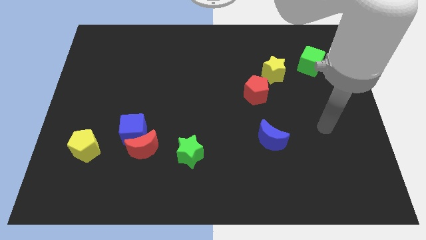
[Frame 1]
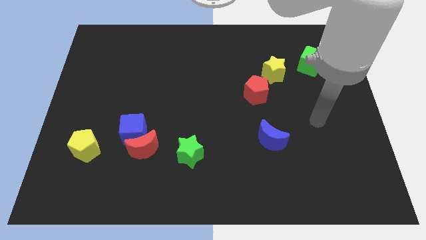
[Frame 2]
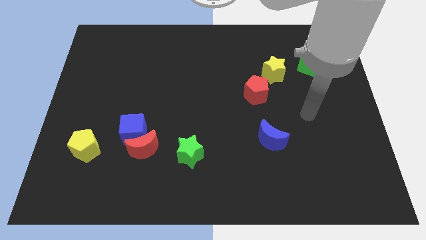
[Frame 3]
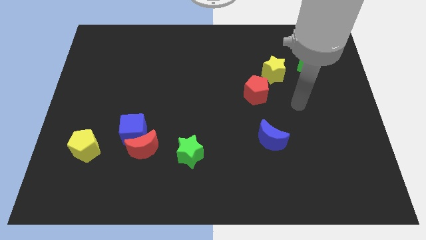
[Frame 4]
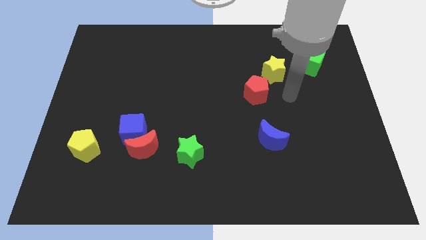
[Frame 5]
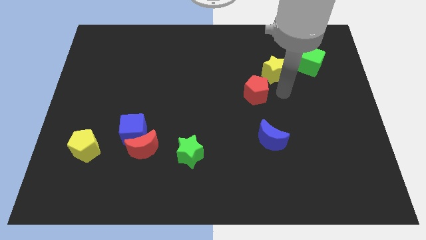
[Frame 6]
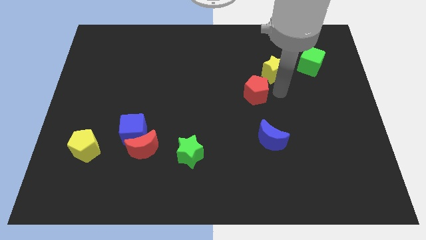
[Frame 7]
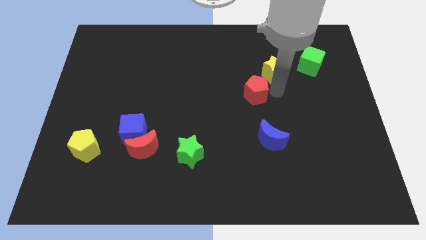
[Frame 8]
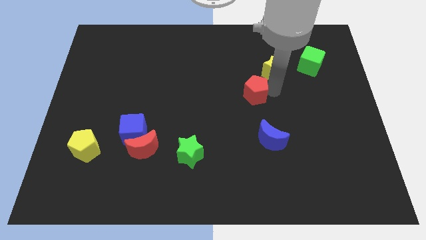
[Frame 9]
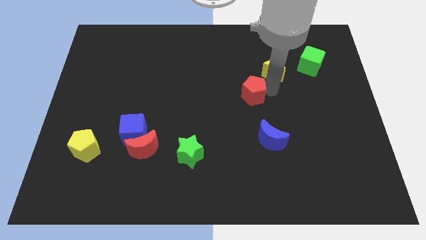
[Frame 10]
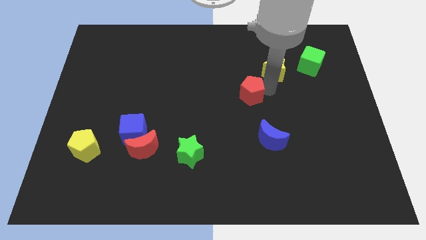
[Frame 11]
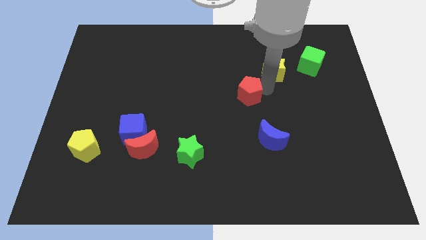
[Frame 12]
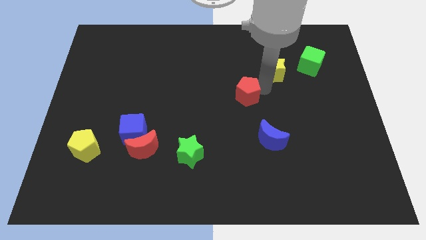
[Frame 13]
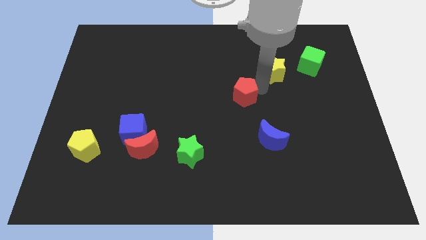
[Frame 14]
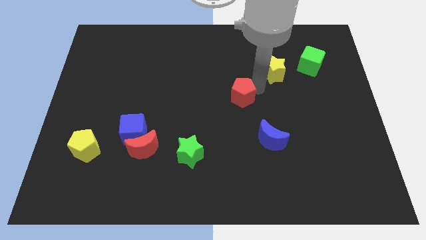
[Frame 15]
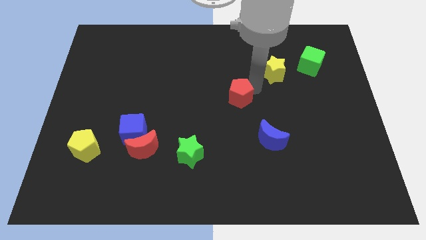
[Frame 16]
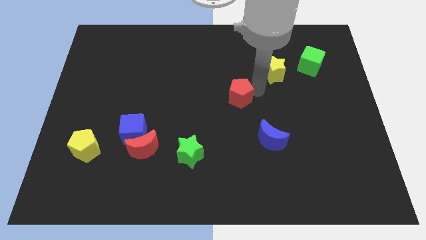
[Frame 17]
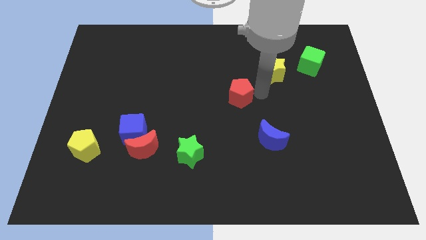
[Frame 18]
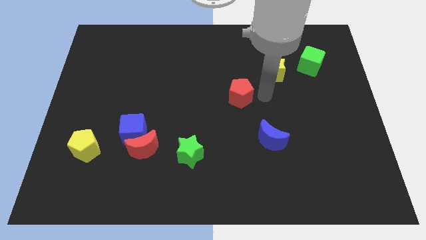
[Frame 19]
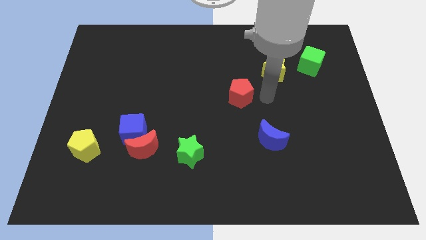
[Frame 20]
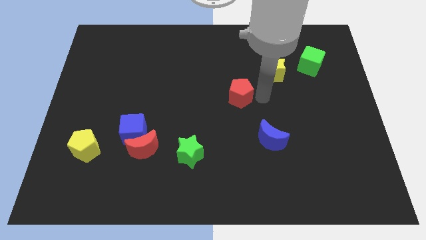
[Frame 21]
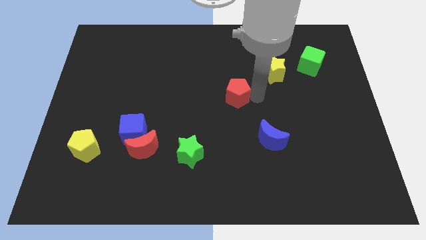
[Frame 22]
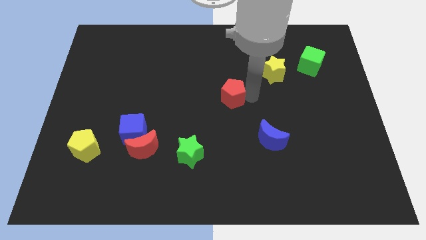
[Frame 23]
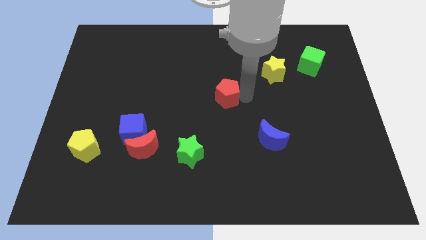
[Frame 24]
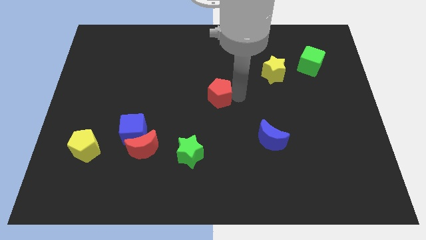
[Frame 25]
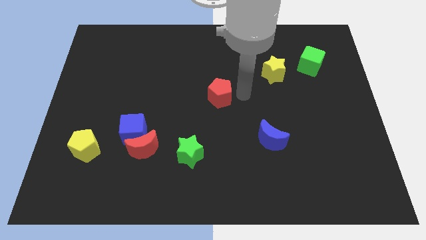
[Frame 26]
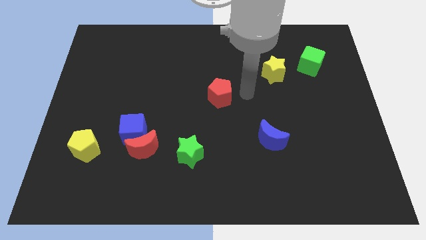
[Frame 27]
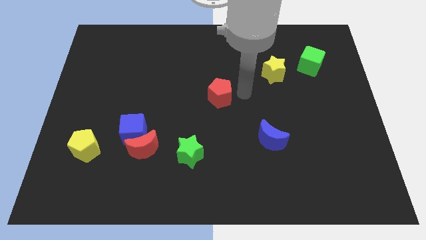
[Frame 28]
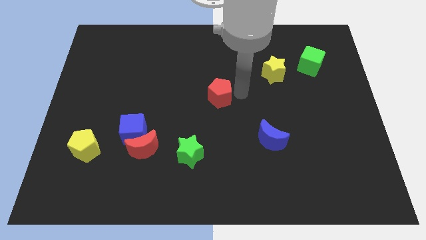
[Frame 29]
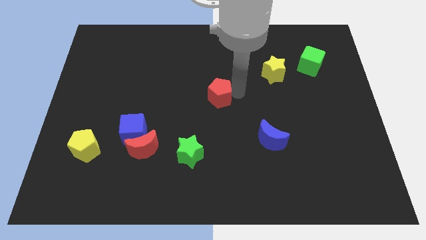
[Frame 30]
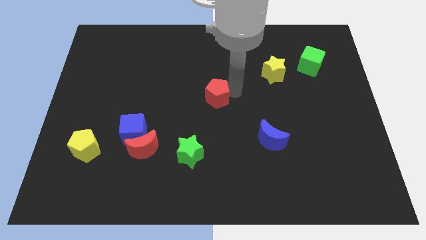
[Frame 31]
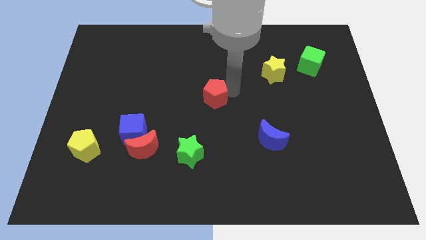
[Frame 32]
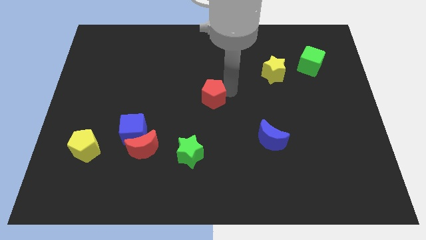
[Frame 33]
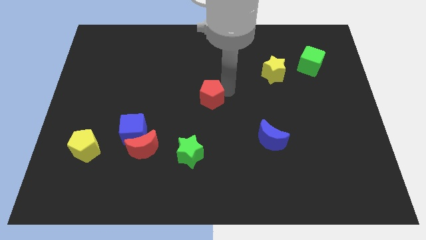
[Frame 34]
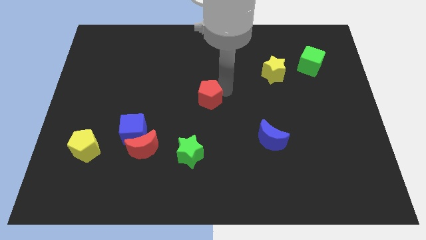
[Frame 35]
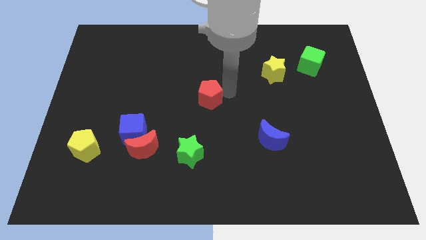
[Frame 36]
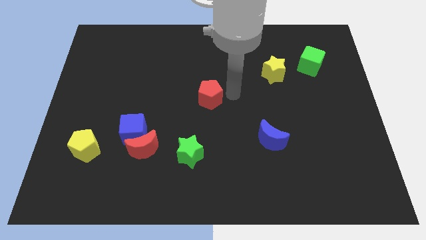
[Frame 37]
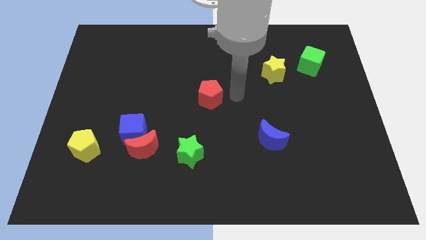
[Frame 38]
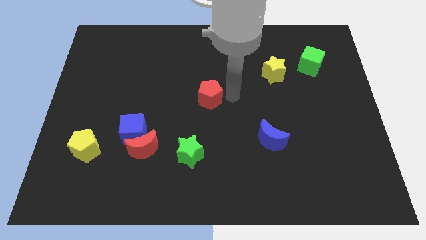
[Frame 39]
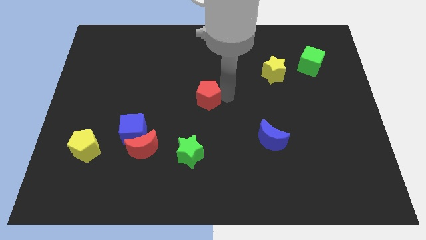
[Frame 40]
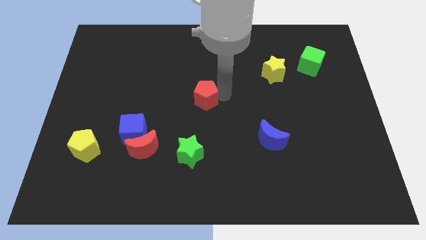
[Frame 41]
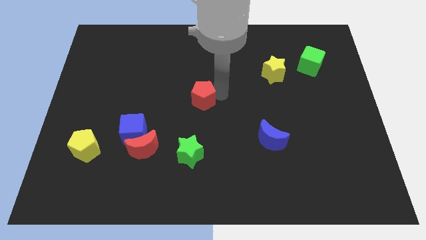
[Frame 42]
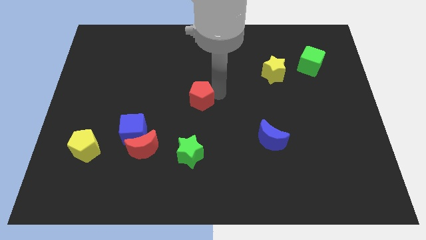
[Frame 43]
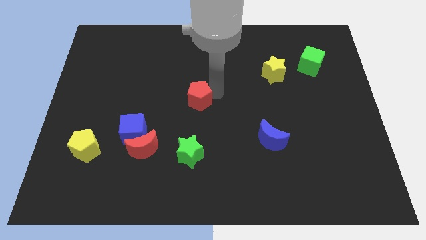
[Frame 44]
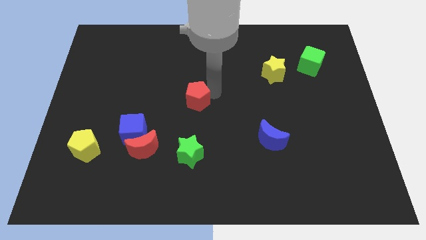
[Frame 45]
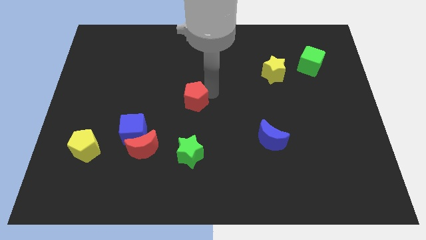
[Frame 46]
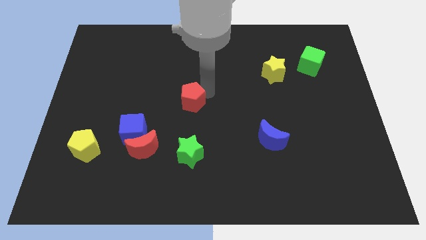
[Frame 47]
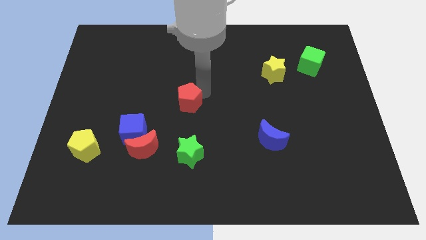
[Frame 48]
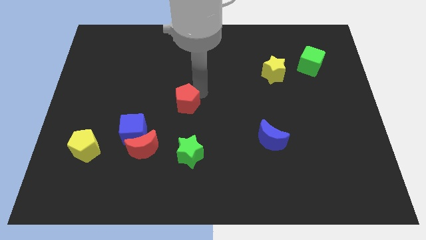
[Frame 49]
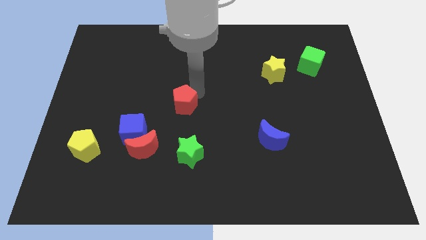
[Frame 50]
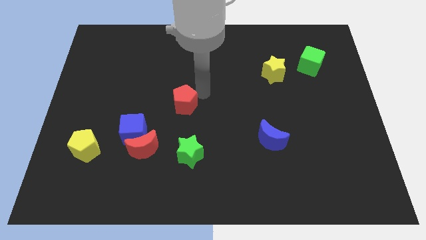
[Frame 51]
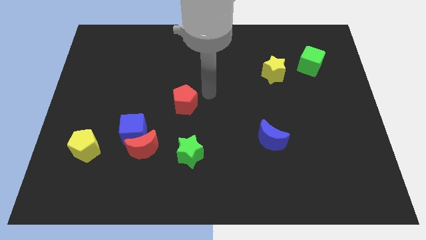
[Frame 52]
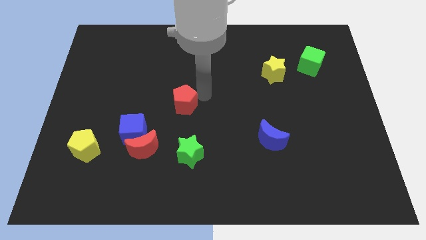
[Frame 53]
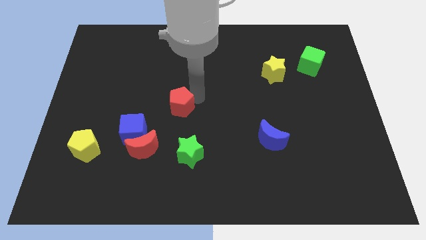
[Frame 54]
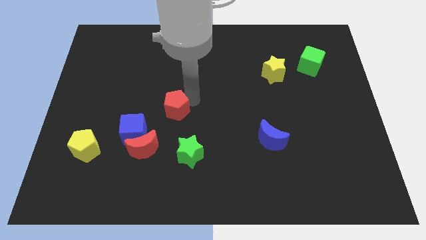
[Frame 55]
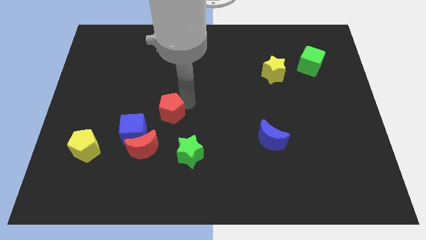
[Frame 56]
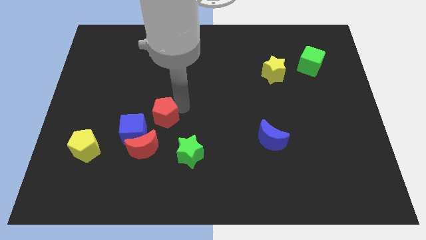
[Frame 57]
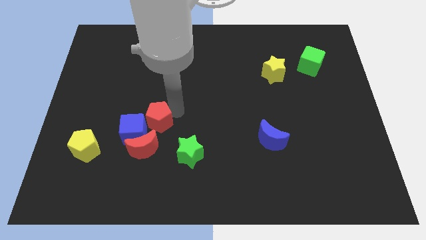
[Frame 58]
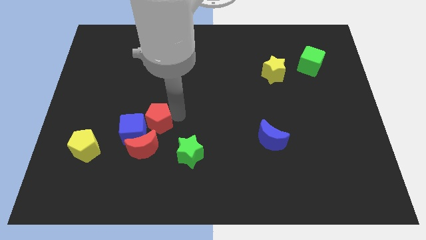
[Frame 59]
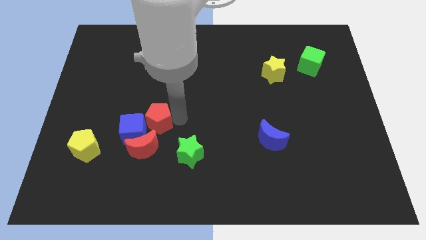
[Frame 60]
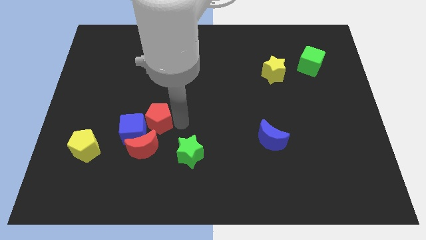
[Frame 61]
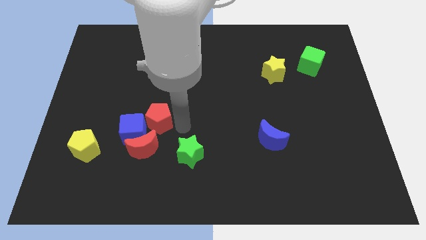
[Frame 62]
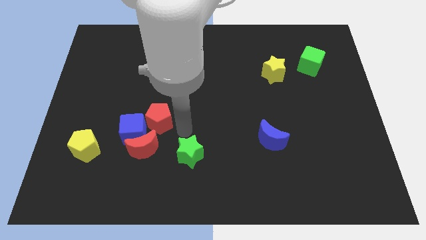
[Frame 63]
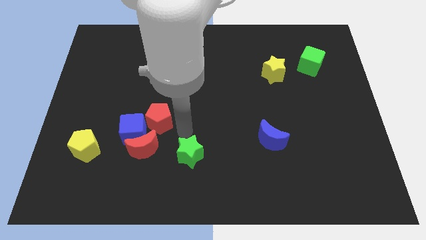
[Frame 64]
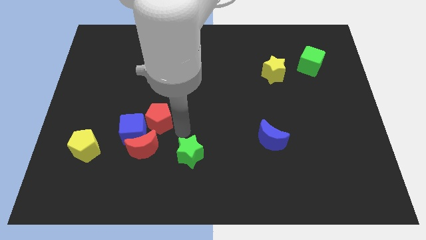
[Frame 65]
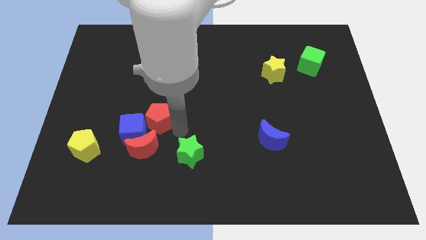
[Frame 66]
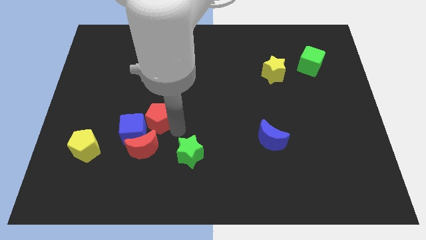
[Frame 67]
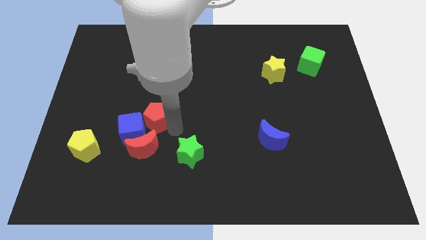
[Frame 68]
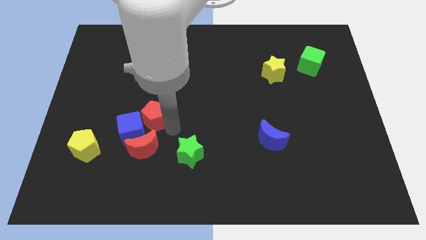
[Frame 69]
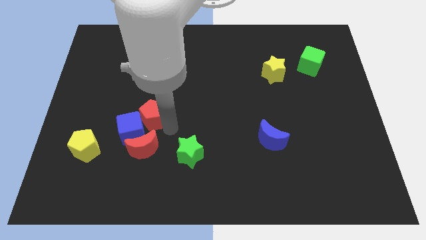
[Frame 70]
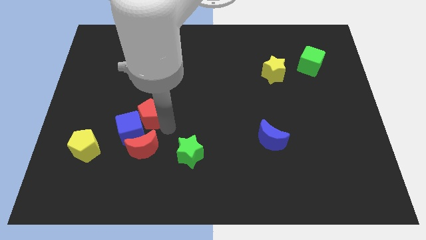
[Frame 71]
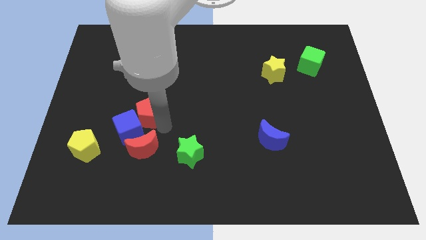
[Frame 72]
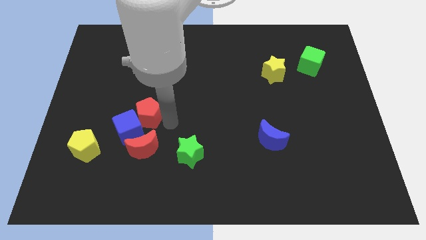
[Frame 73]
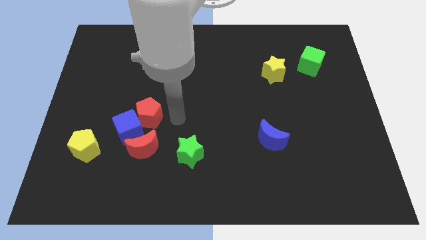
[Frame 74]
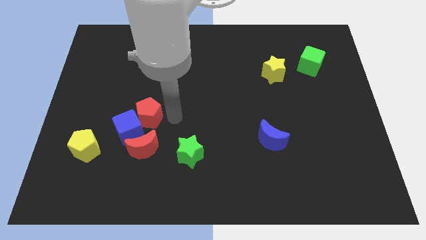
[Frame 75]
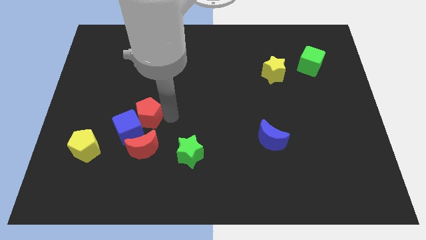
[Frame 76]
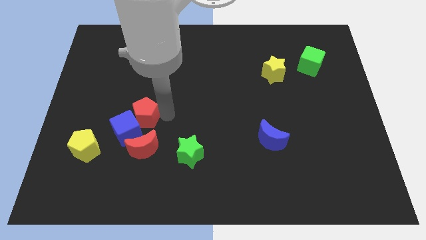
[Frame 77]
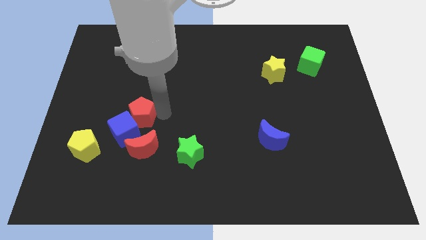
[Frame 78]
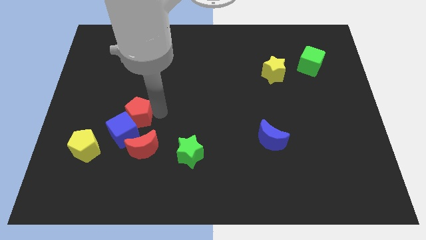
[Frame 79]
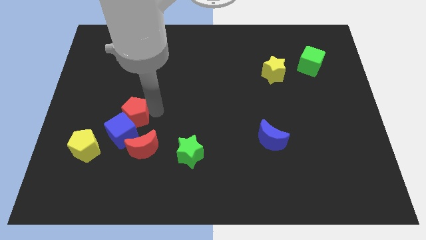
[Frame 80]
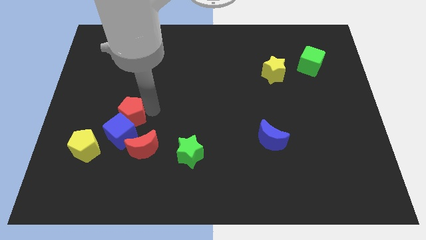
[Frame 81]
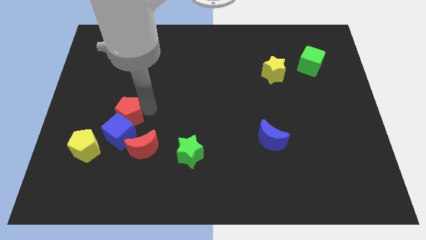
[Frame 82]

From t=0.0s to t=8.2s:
push the red pentagon diagonally up and to the left of the blue cube
